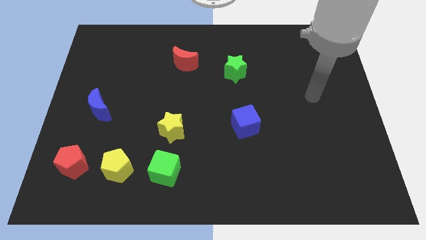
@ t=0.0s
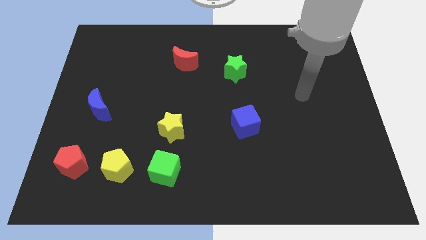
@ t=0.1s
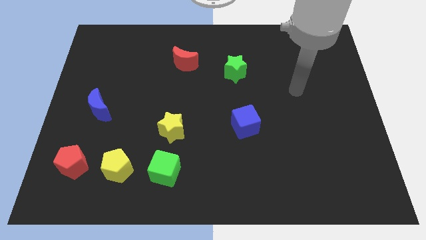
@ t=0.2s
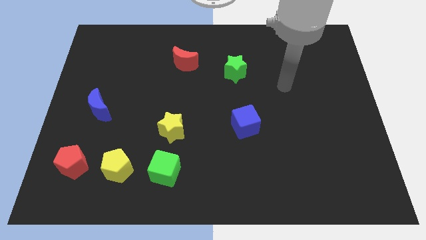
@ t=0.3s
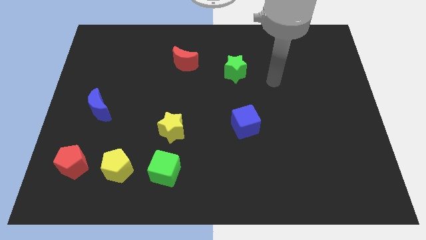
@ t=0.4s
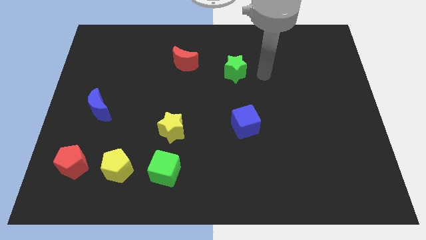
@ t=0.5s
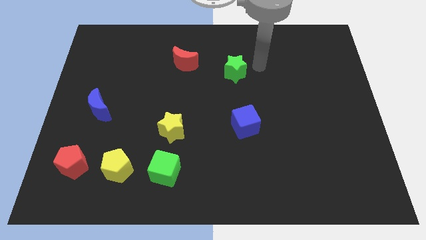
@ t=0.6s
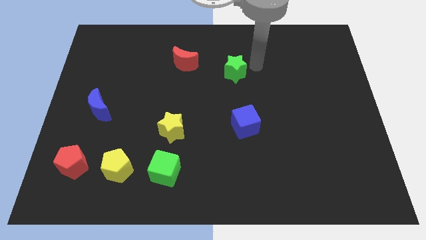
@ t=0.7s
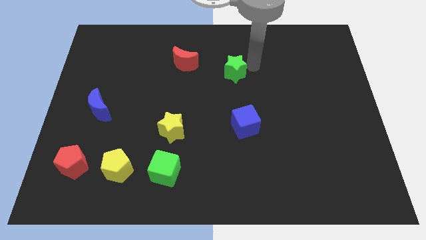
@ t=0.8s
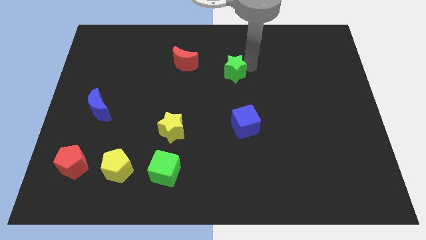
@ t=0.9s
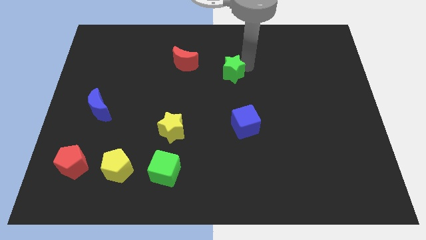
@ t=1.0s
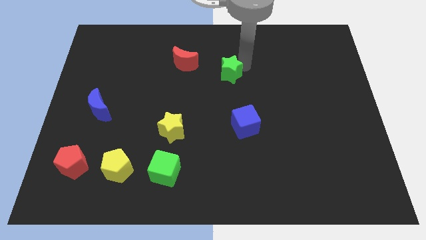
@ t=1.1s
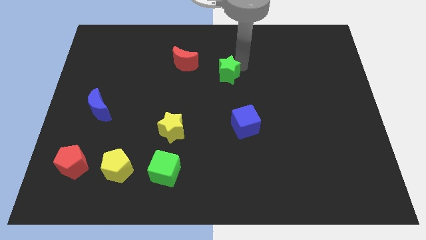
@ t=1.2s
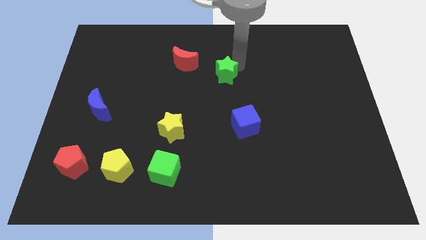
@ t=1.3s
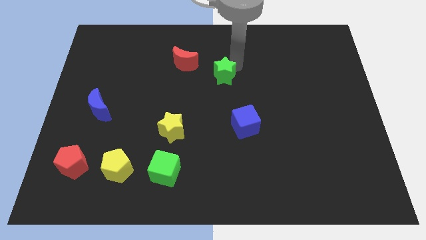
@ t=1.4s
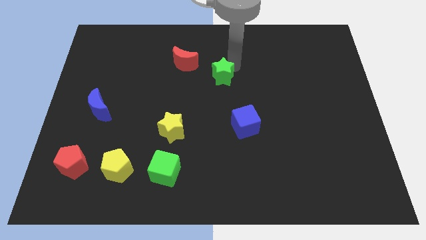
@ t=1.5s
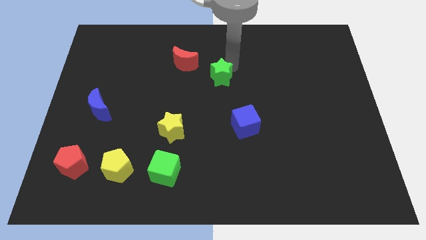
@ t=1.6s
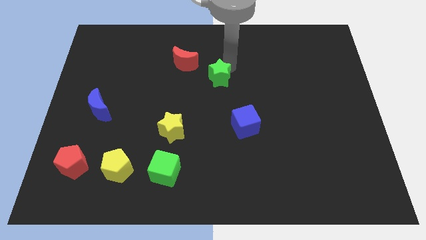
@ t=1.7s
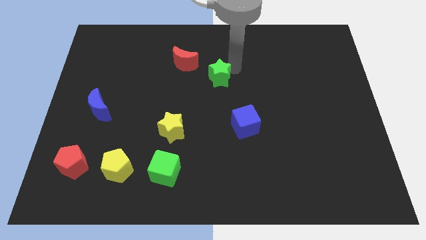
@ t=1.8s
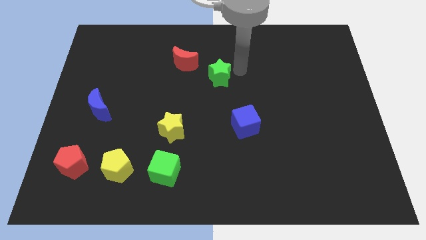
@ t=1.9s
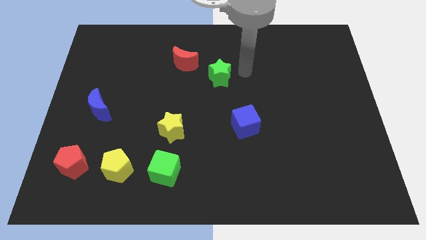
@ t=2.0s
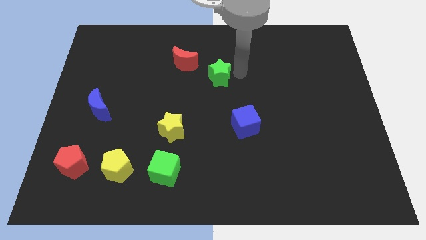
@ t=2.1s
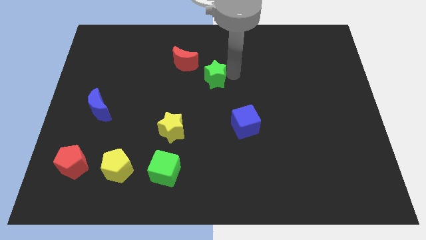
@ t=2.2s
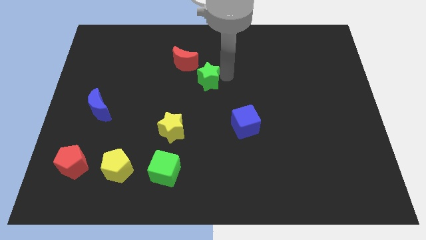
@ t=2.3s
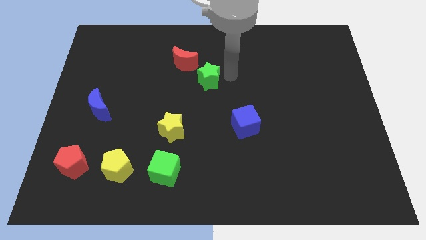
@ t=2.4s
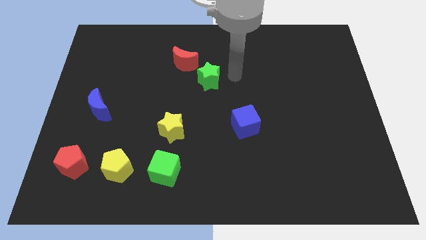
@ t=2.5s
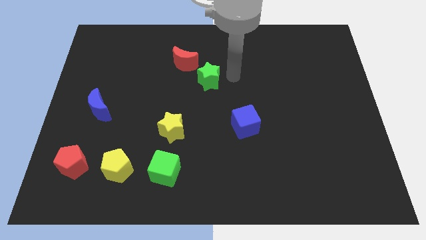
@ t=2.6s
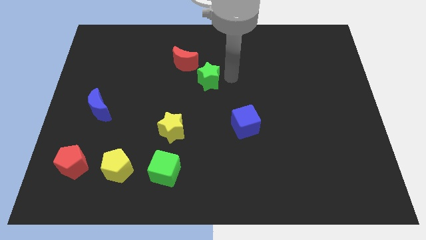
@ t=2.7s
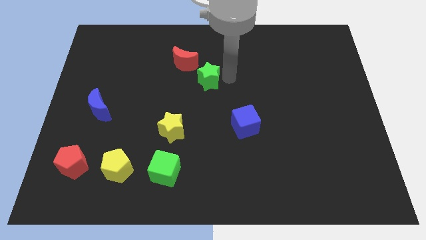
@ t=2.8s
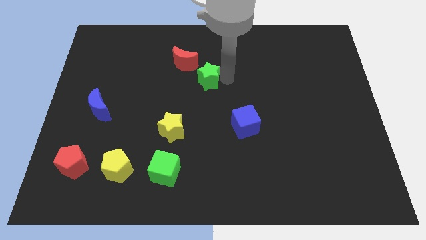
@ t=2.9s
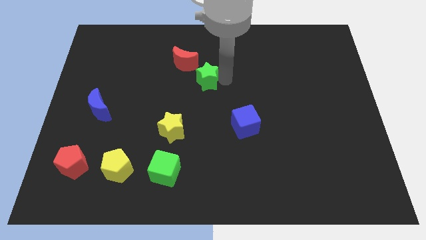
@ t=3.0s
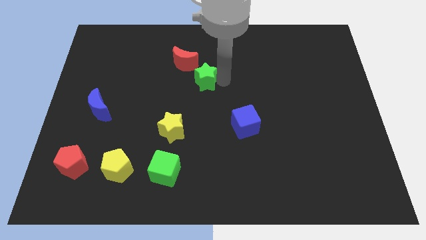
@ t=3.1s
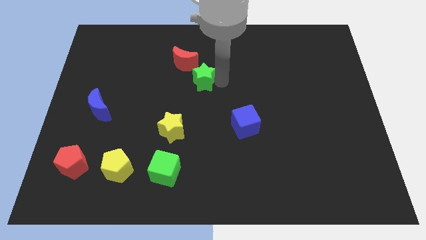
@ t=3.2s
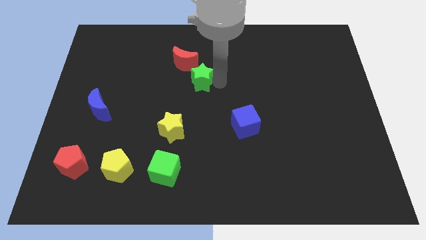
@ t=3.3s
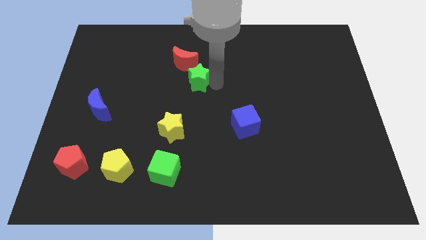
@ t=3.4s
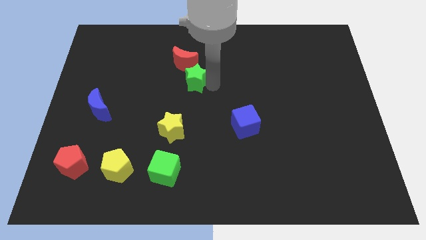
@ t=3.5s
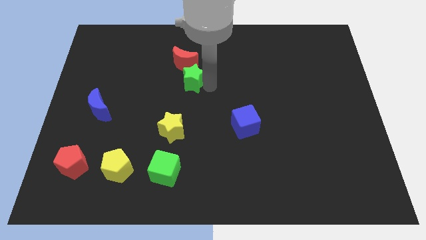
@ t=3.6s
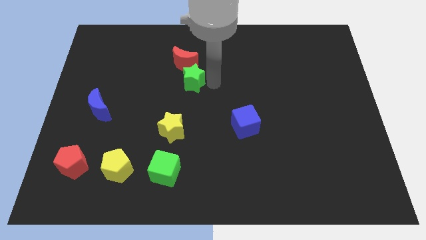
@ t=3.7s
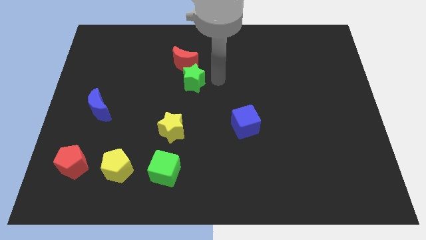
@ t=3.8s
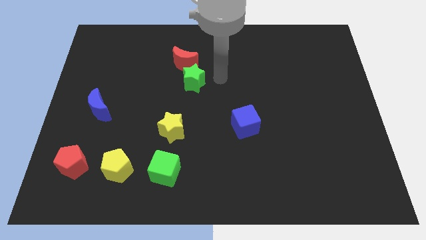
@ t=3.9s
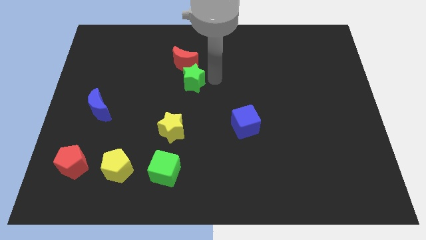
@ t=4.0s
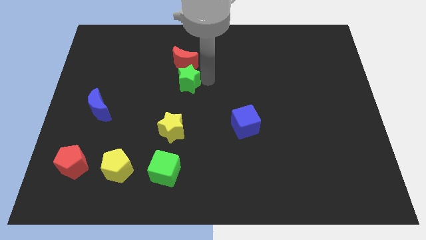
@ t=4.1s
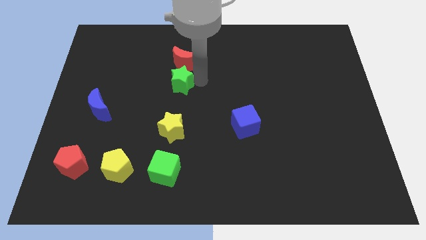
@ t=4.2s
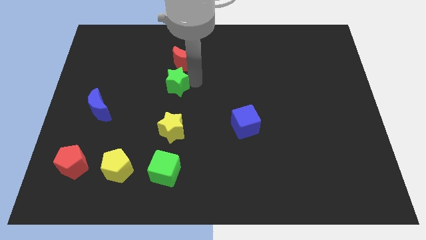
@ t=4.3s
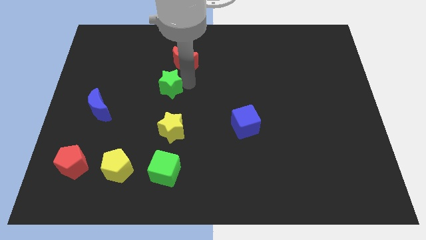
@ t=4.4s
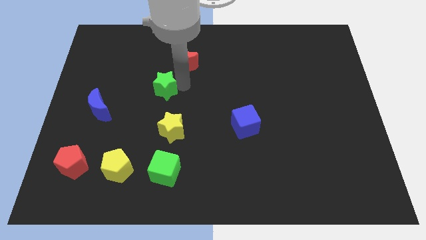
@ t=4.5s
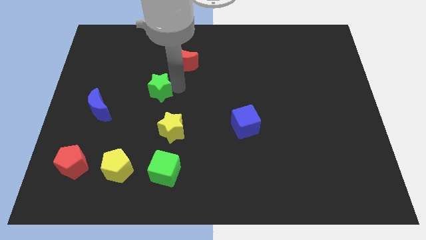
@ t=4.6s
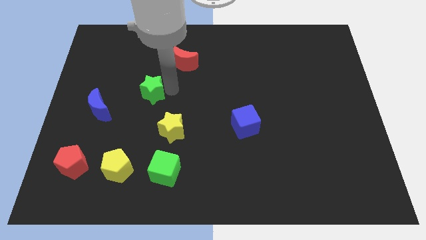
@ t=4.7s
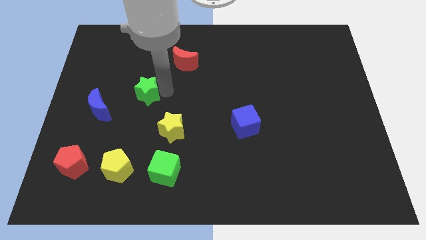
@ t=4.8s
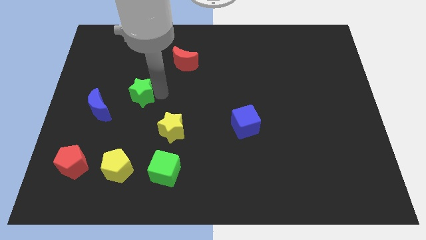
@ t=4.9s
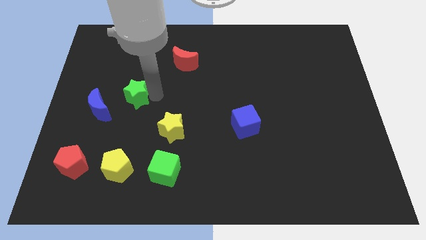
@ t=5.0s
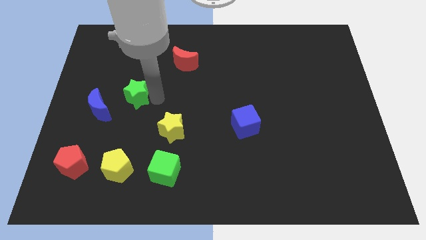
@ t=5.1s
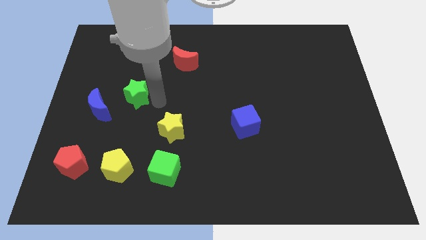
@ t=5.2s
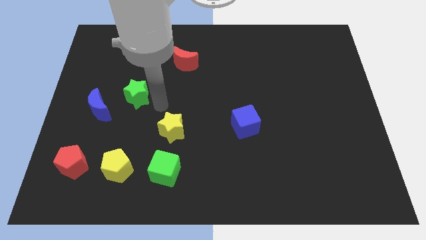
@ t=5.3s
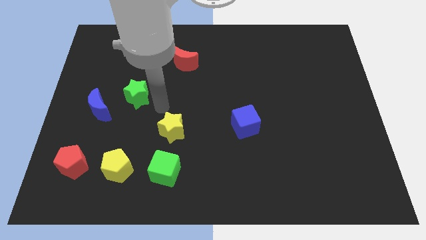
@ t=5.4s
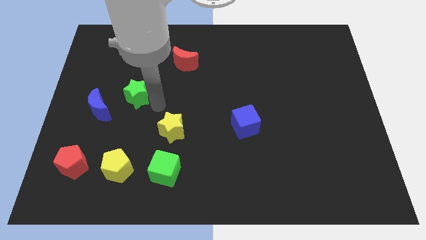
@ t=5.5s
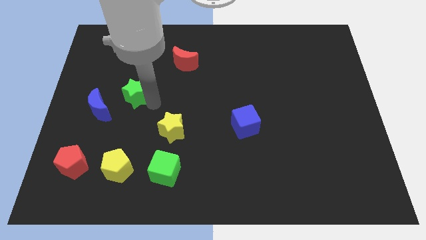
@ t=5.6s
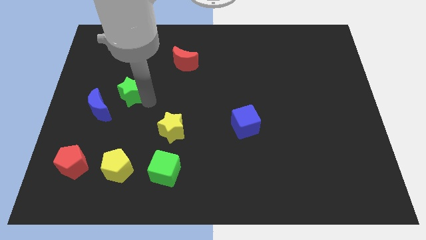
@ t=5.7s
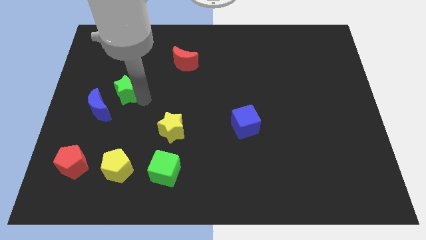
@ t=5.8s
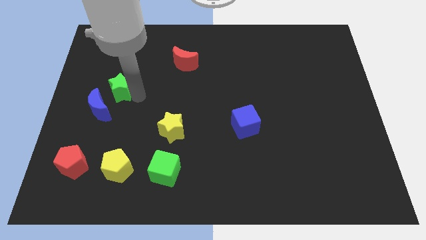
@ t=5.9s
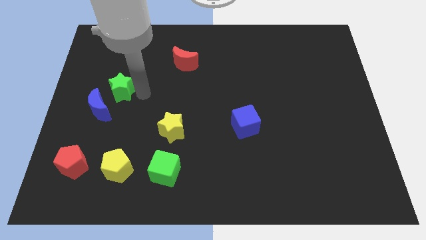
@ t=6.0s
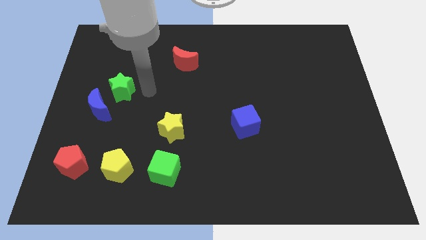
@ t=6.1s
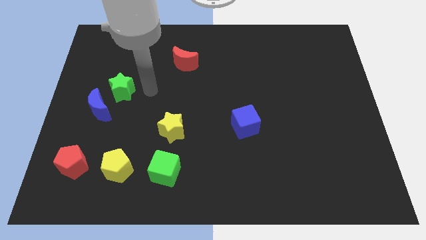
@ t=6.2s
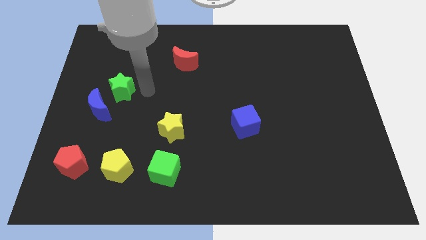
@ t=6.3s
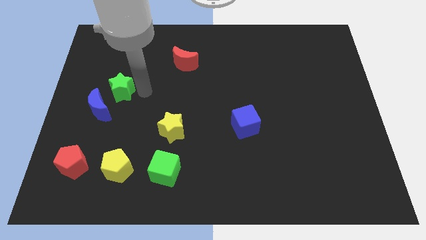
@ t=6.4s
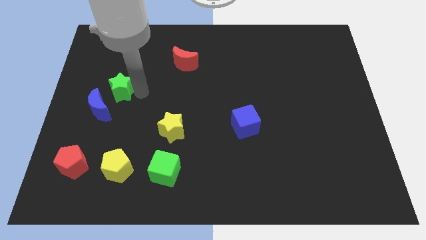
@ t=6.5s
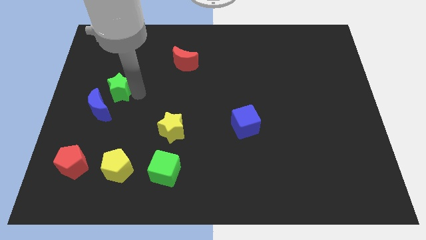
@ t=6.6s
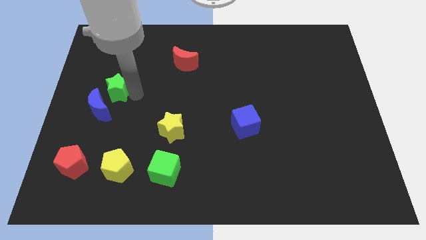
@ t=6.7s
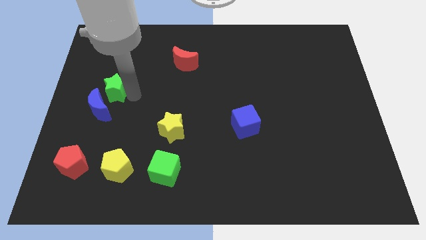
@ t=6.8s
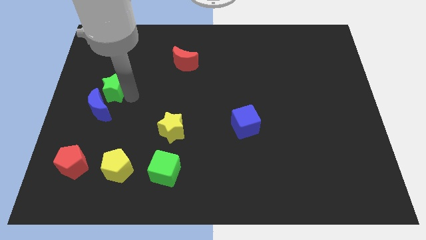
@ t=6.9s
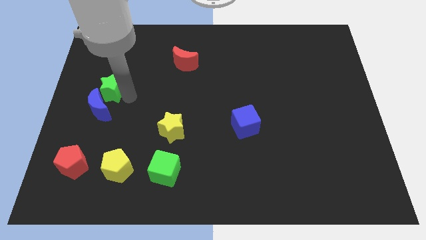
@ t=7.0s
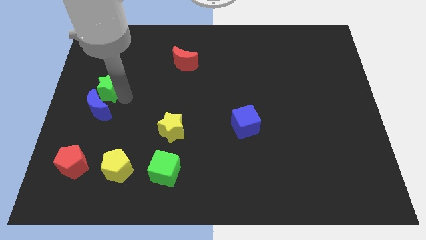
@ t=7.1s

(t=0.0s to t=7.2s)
push the green star to the left side of the board

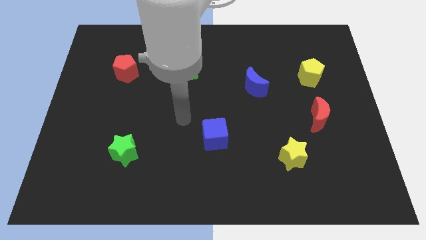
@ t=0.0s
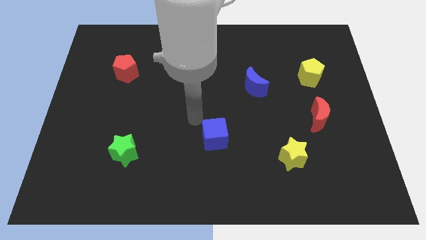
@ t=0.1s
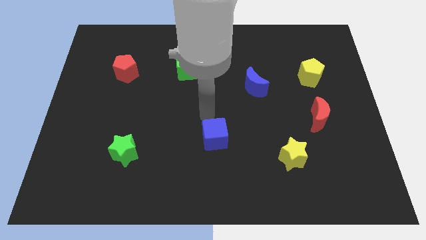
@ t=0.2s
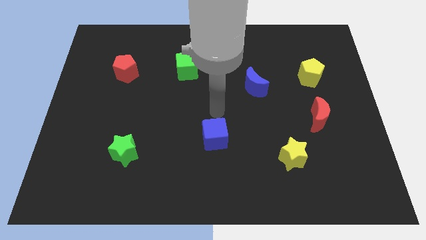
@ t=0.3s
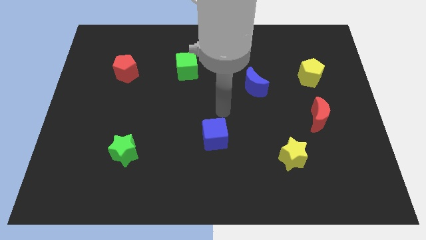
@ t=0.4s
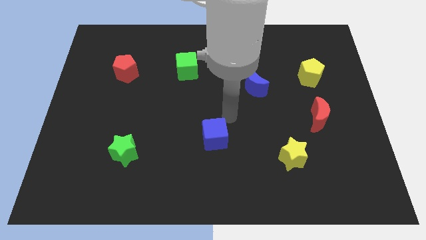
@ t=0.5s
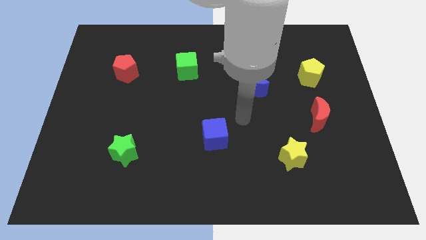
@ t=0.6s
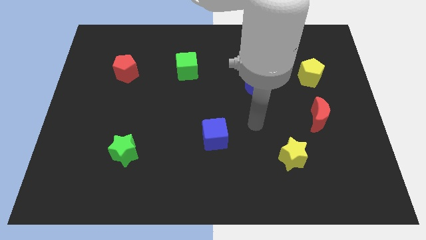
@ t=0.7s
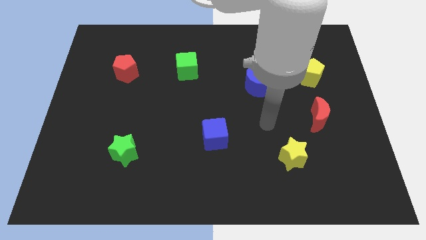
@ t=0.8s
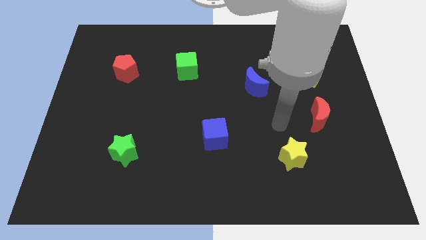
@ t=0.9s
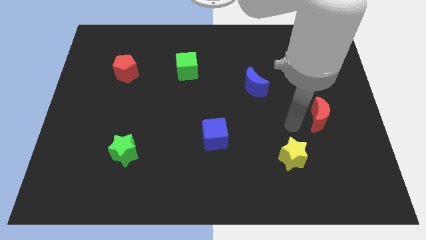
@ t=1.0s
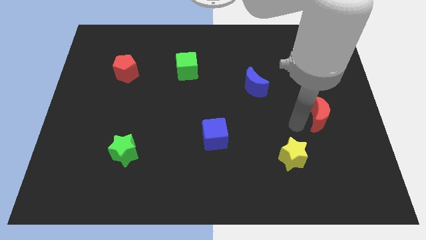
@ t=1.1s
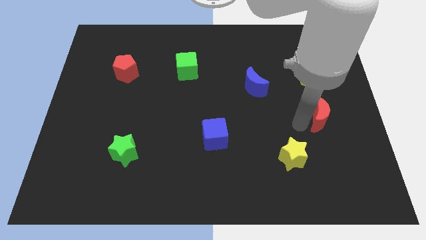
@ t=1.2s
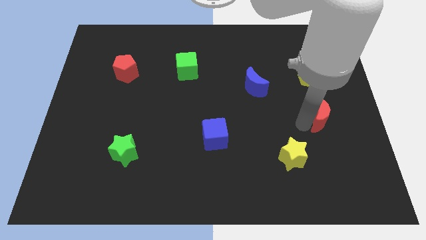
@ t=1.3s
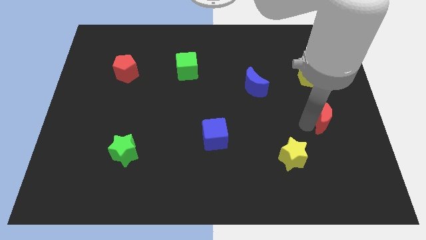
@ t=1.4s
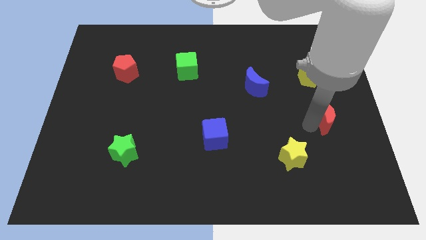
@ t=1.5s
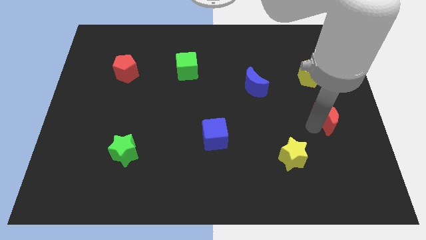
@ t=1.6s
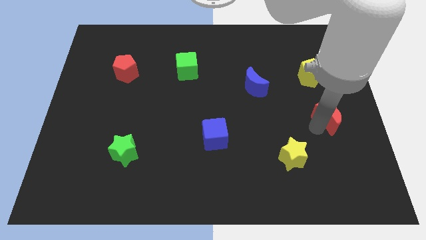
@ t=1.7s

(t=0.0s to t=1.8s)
move the red moon to the right side of the board
